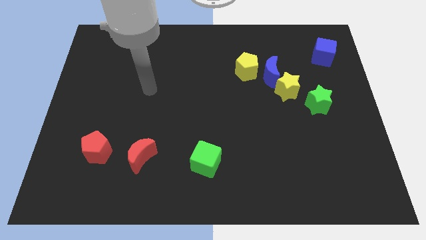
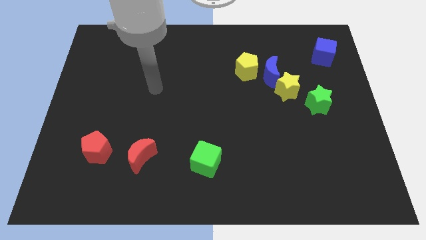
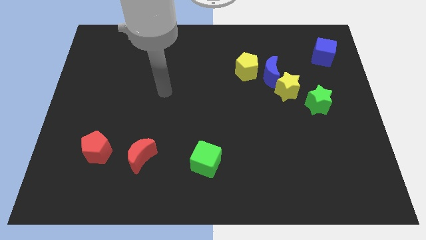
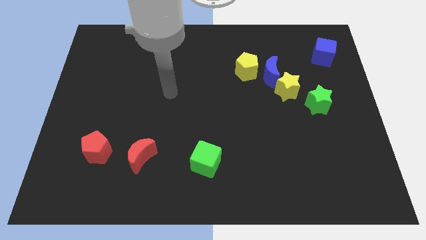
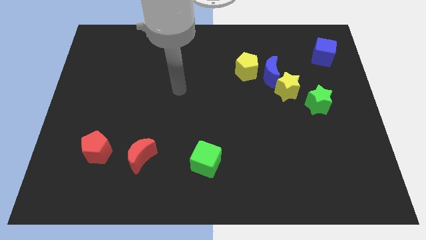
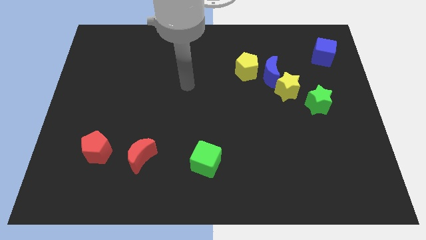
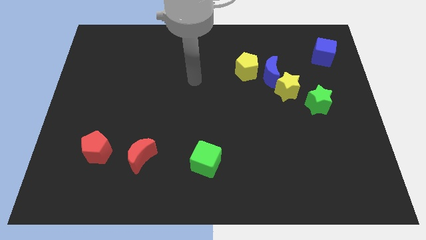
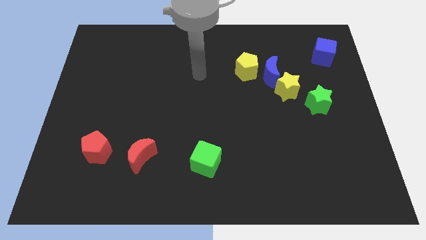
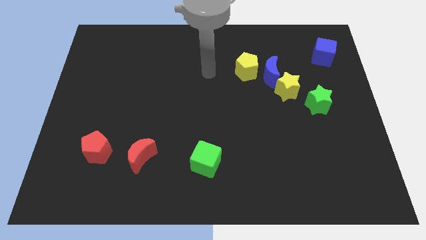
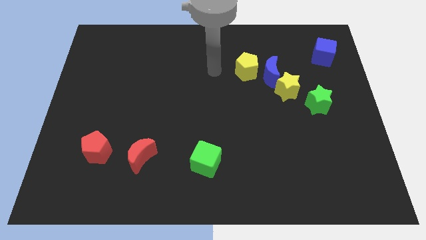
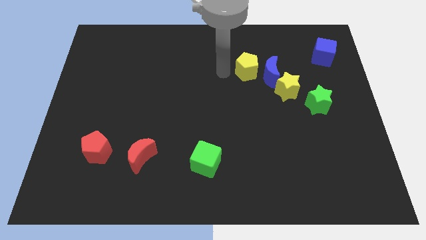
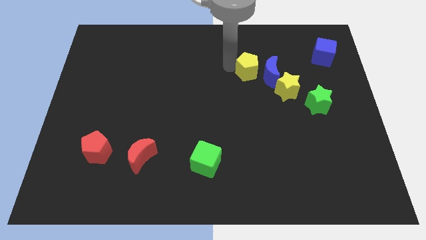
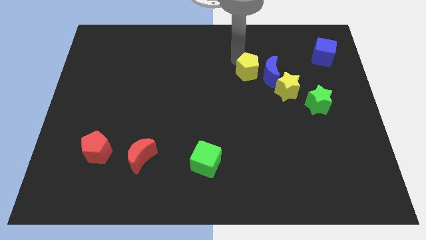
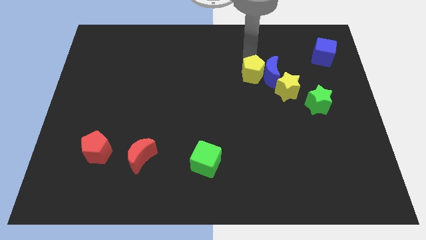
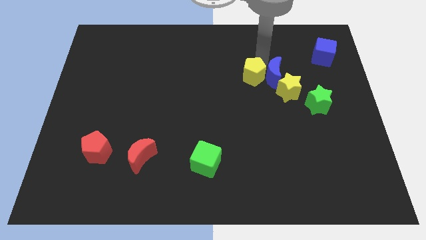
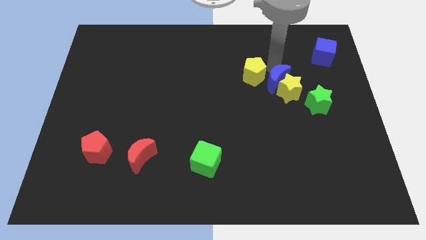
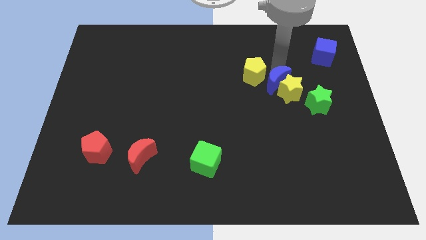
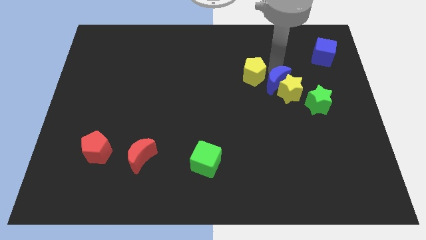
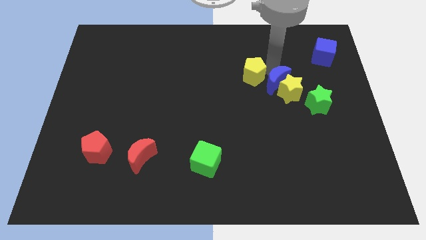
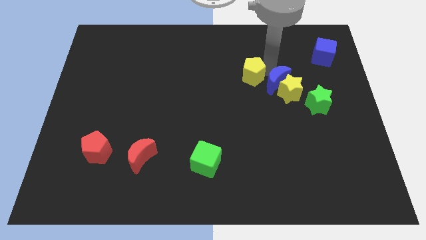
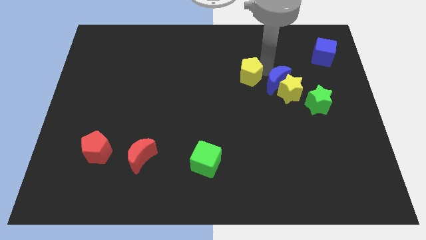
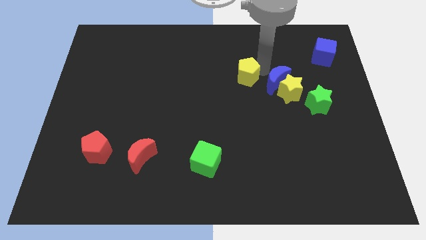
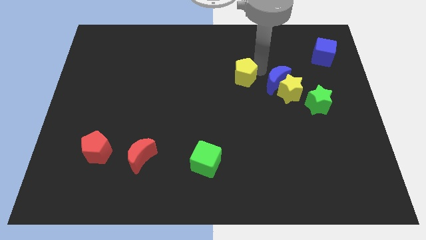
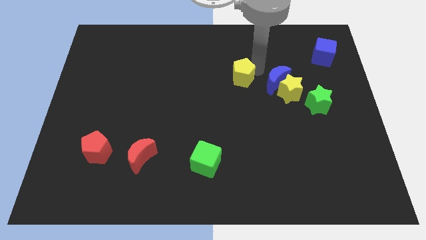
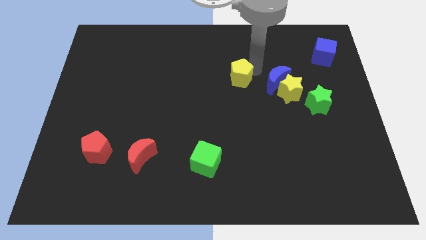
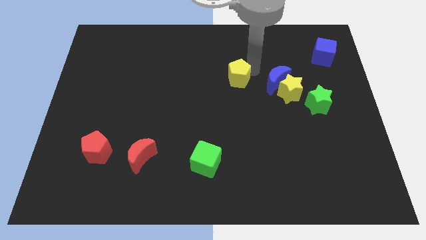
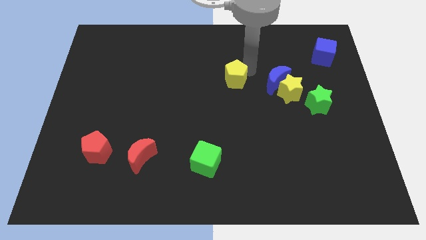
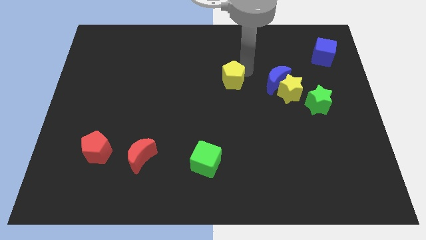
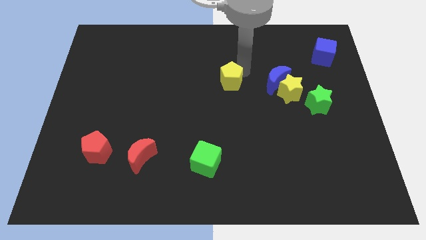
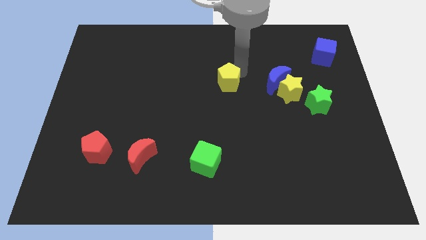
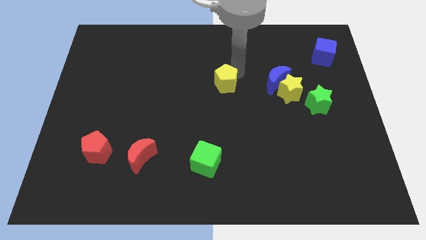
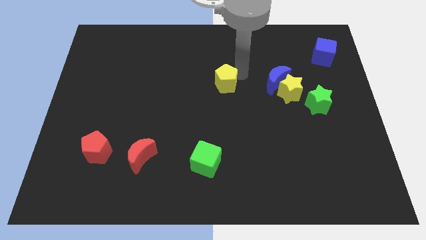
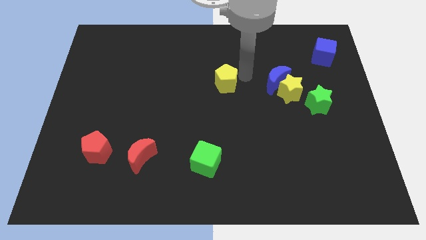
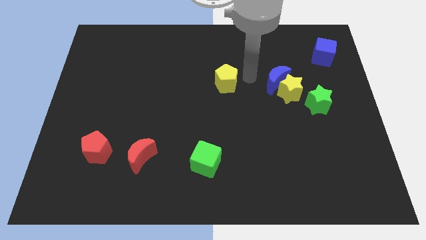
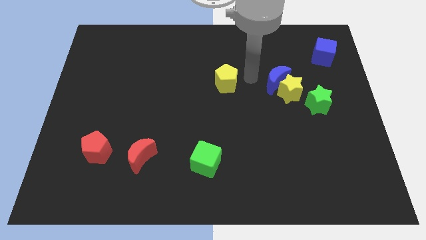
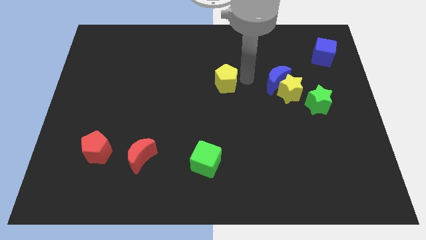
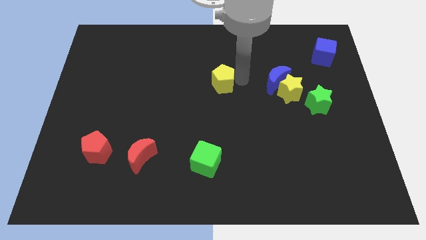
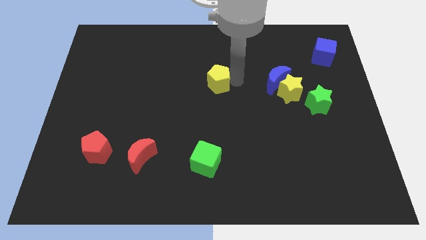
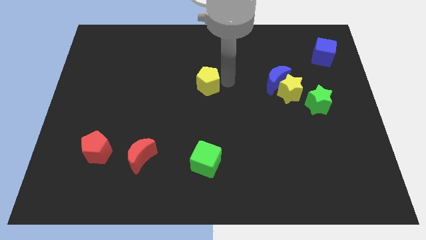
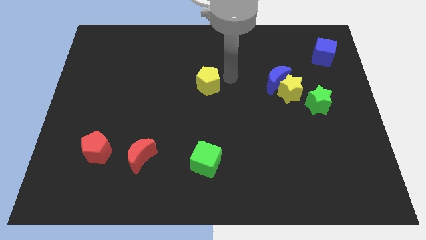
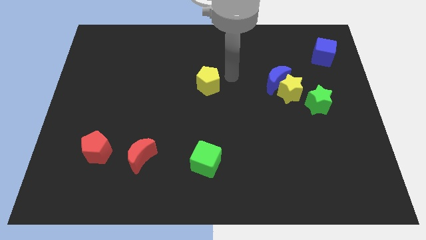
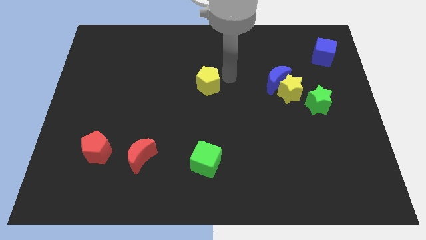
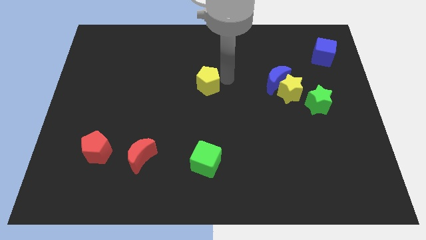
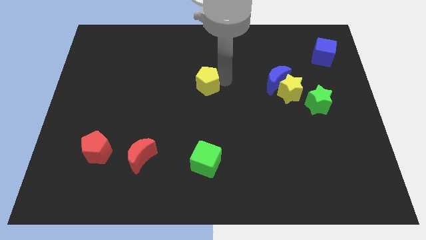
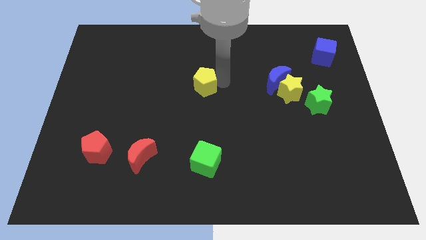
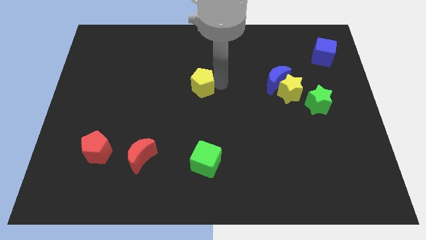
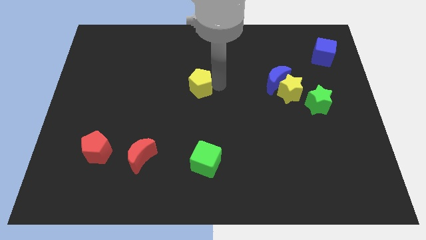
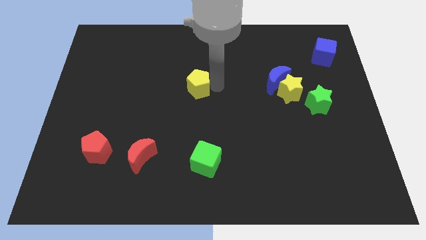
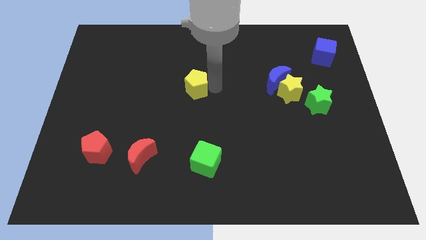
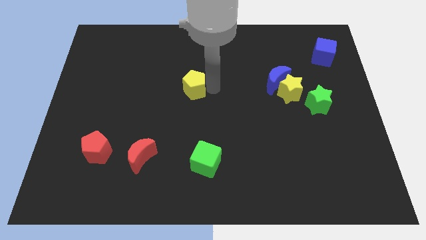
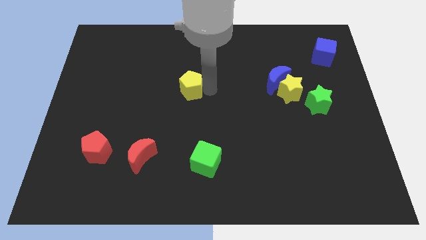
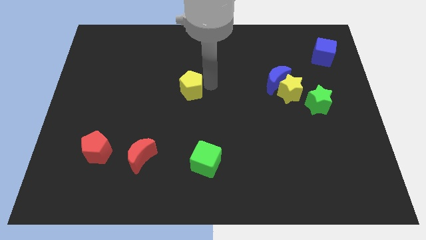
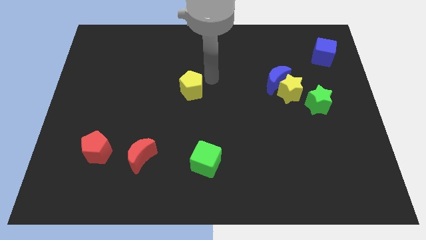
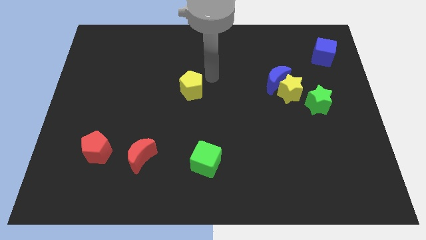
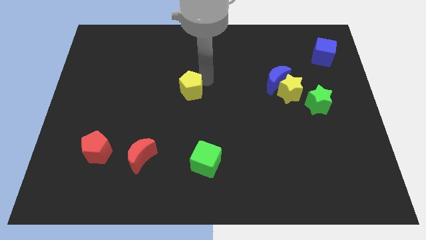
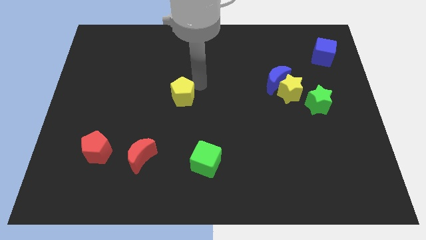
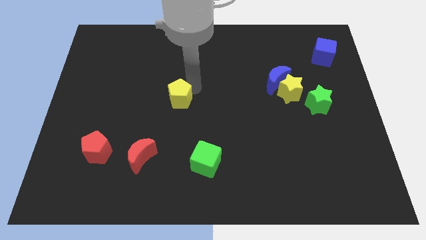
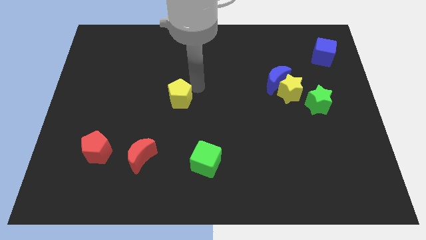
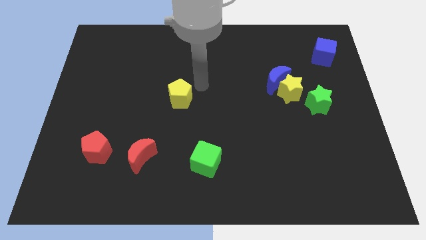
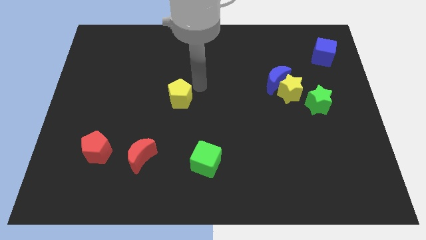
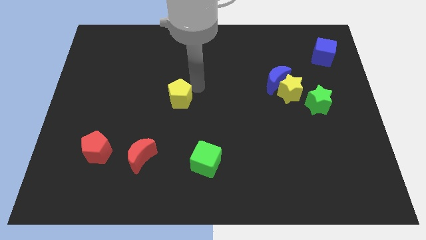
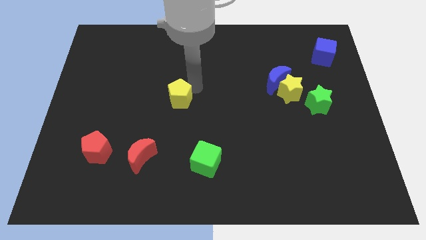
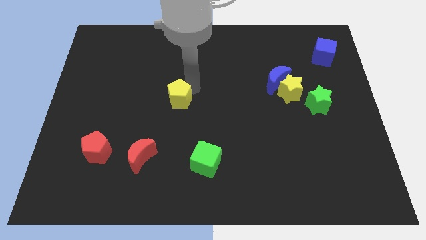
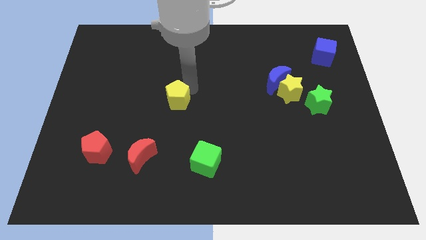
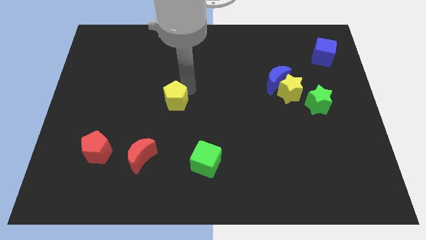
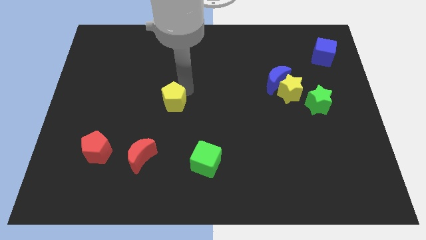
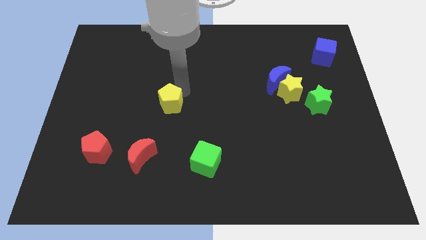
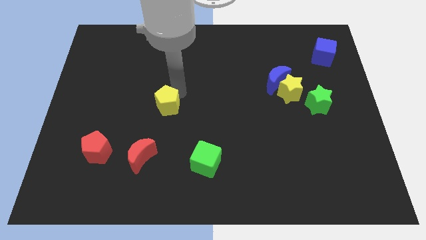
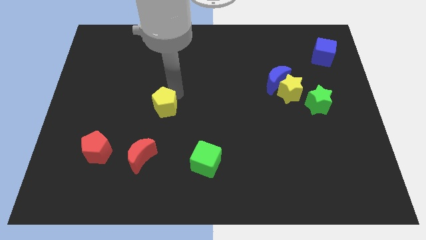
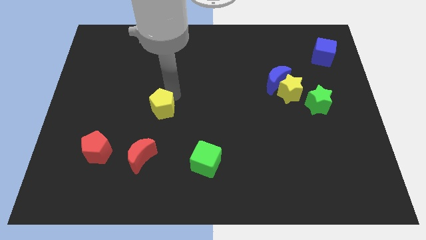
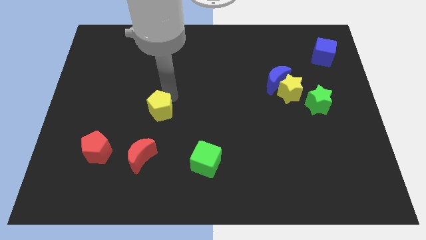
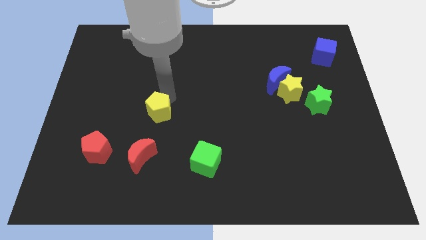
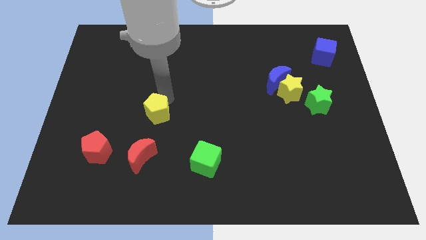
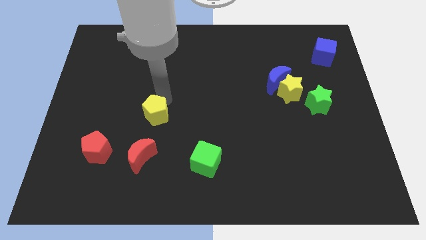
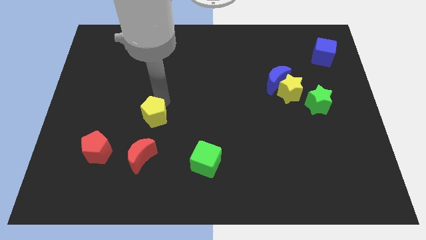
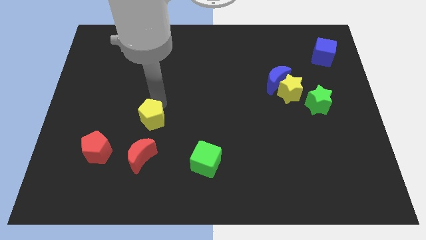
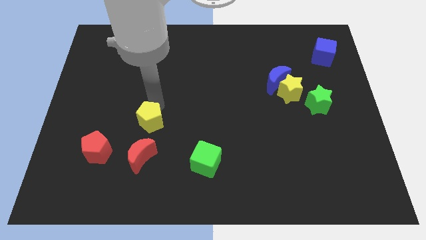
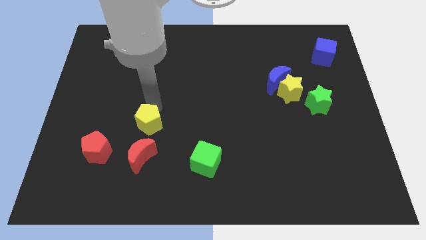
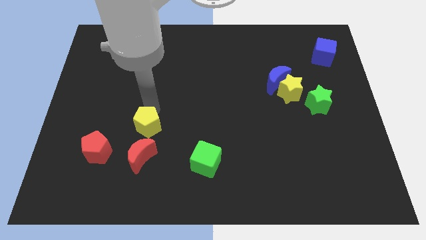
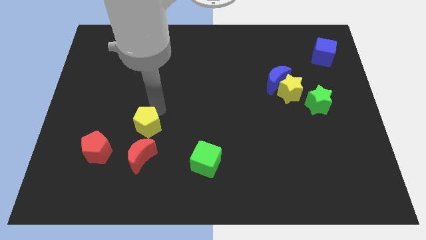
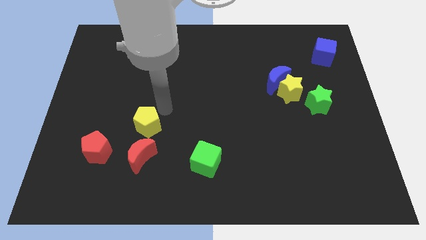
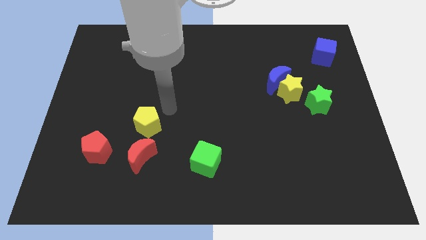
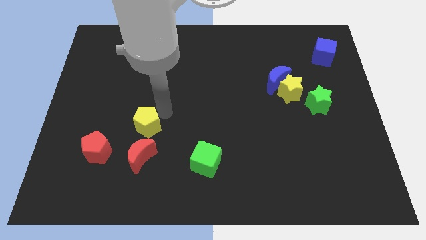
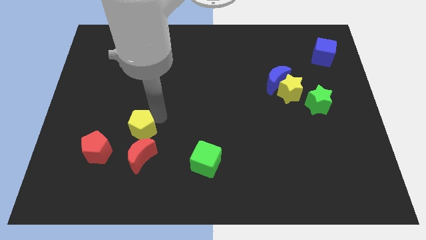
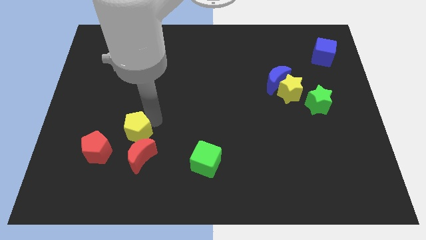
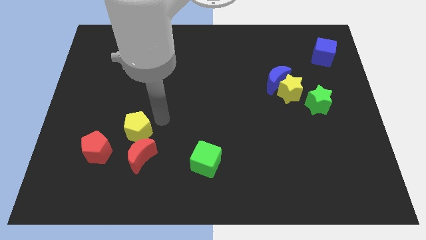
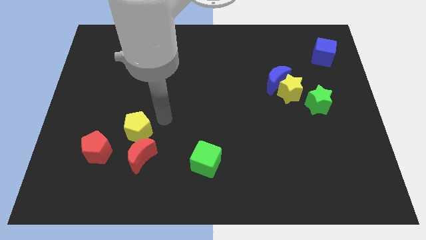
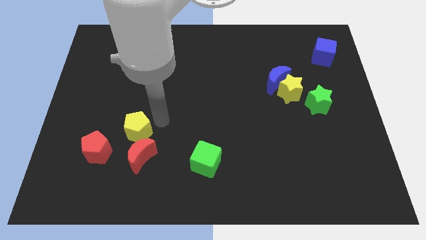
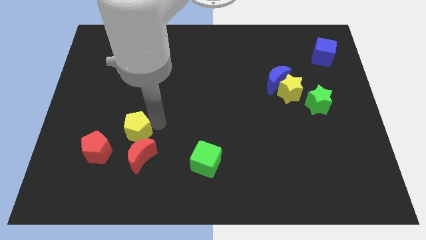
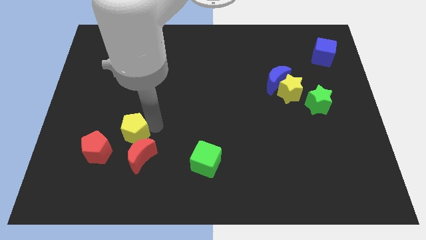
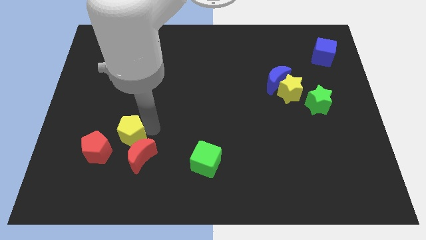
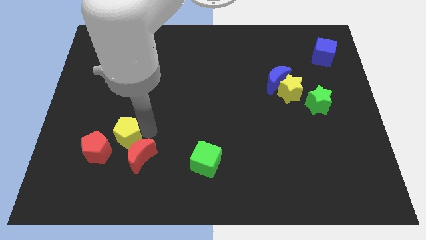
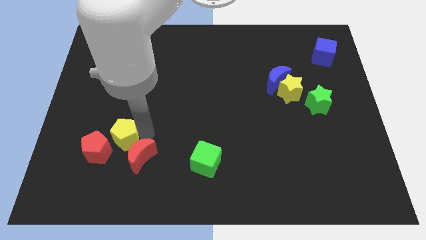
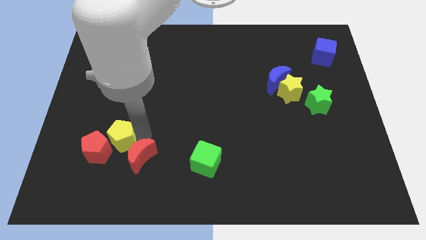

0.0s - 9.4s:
push the yellow pentagon towards the red pentagon
